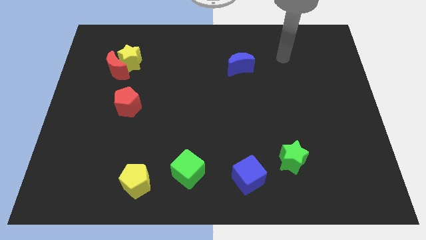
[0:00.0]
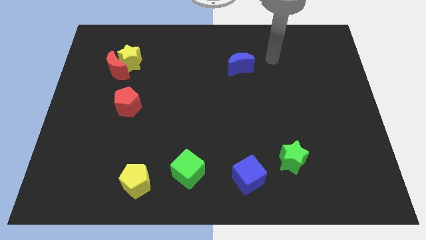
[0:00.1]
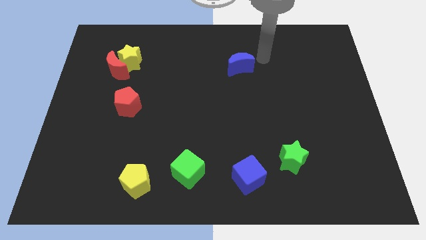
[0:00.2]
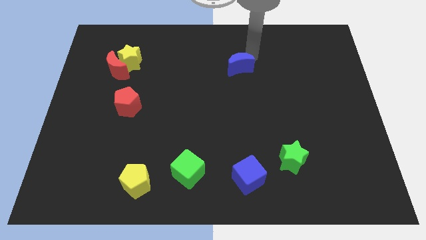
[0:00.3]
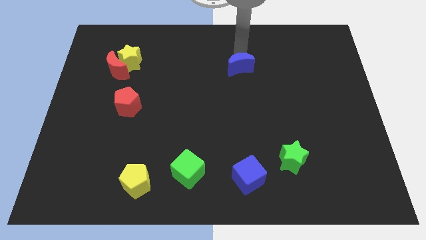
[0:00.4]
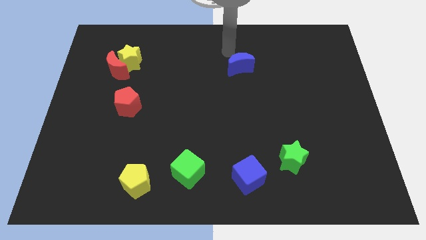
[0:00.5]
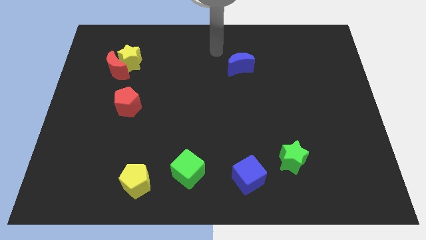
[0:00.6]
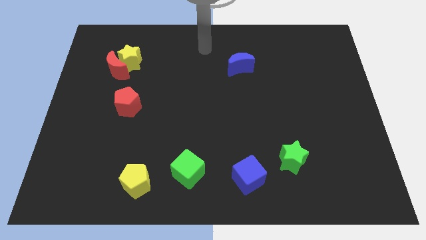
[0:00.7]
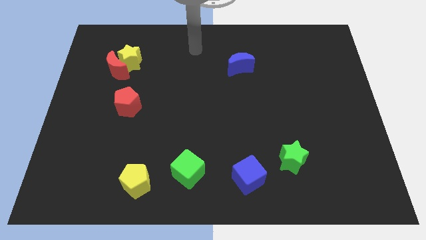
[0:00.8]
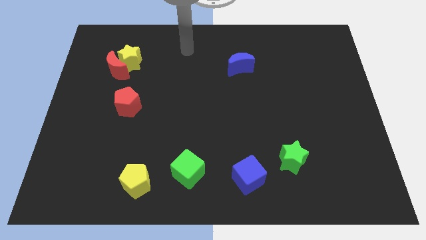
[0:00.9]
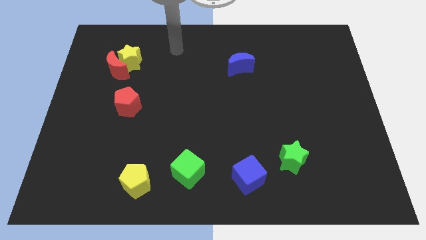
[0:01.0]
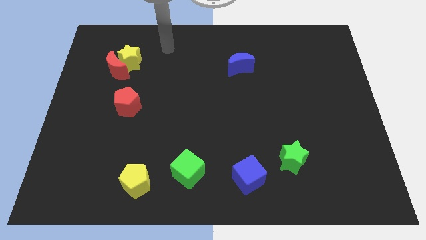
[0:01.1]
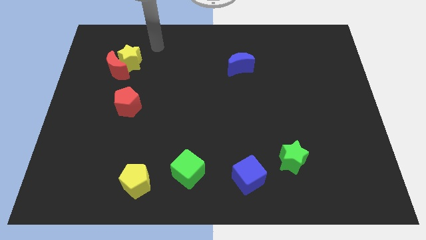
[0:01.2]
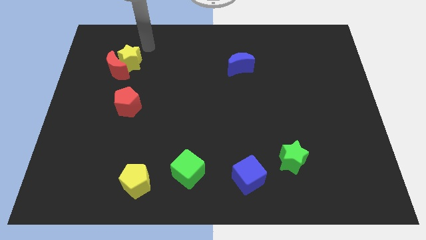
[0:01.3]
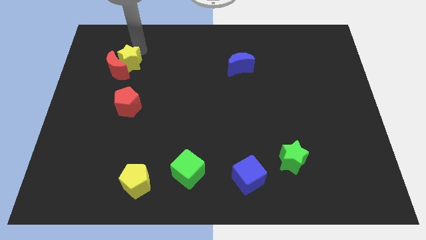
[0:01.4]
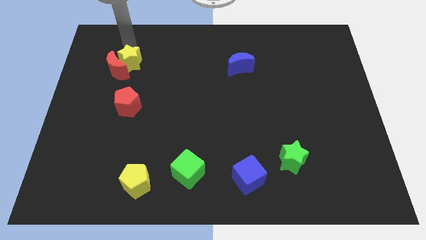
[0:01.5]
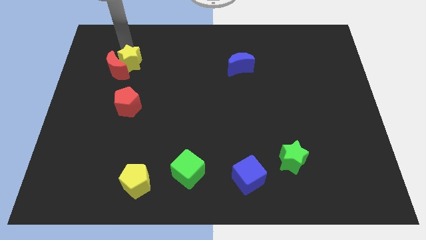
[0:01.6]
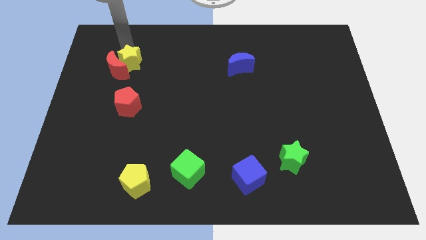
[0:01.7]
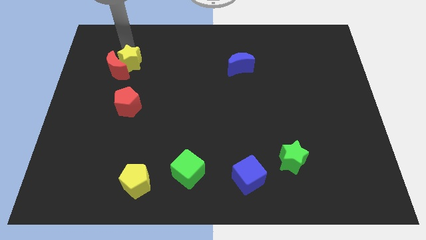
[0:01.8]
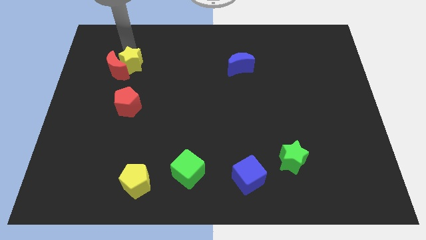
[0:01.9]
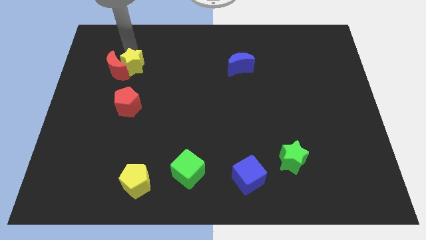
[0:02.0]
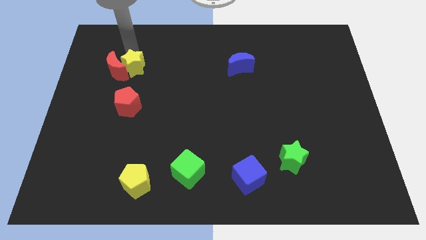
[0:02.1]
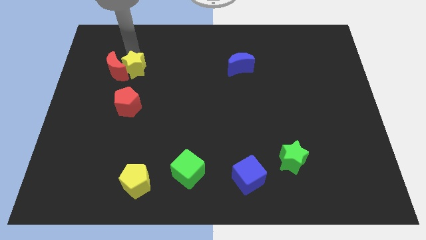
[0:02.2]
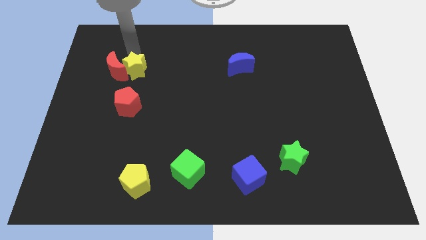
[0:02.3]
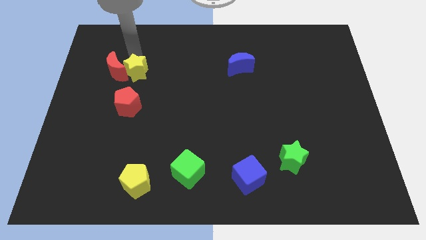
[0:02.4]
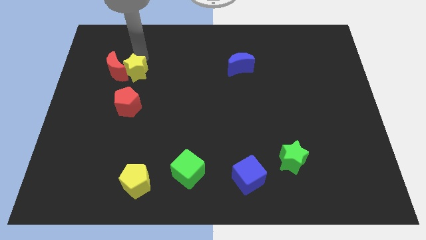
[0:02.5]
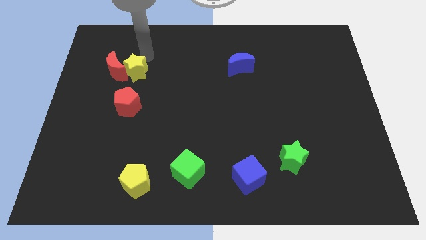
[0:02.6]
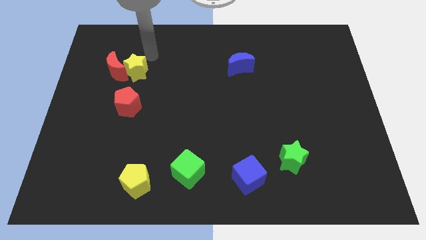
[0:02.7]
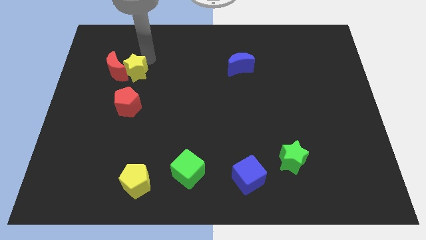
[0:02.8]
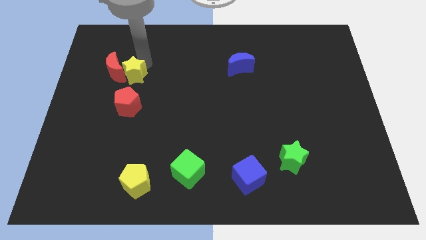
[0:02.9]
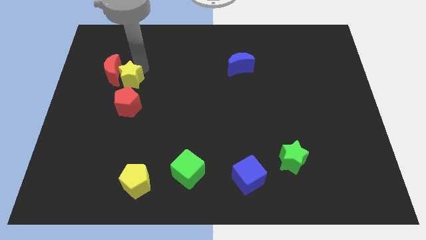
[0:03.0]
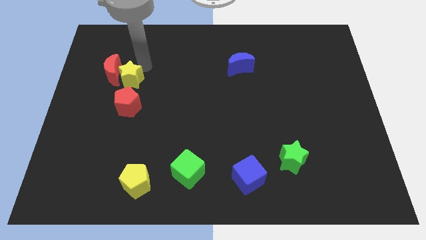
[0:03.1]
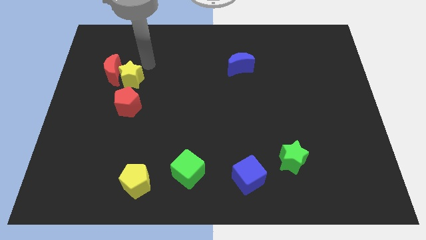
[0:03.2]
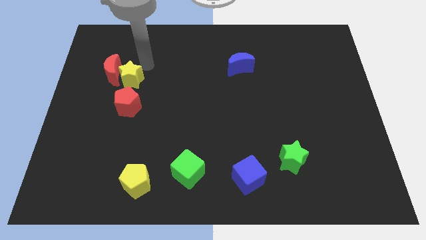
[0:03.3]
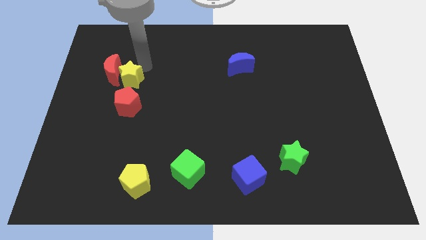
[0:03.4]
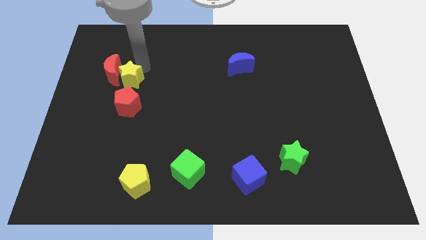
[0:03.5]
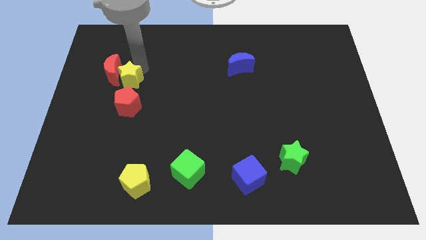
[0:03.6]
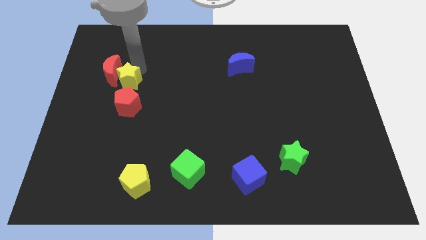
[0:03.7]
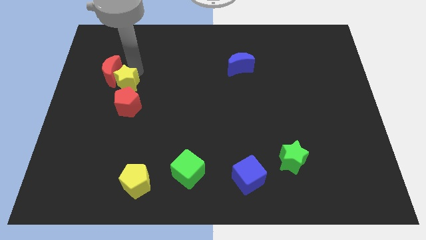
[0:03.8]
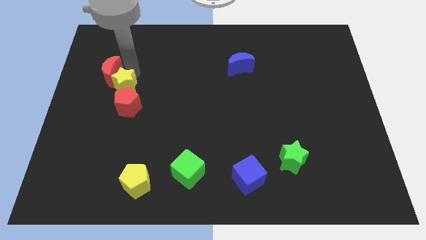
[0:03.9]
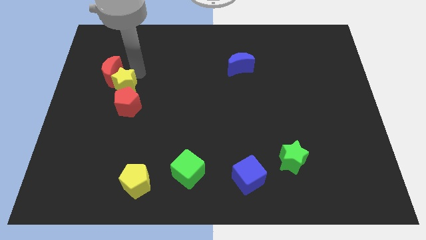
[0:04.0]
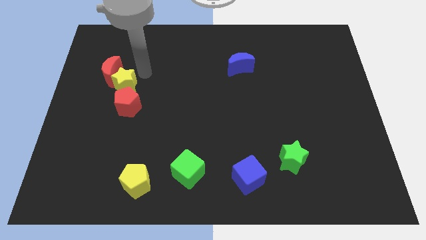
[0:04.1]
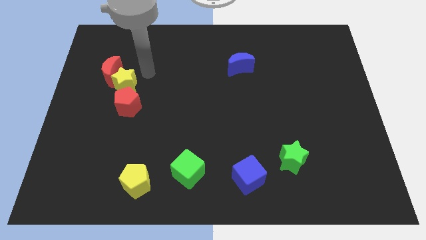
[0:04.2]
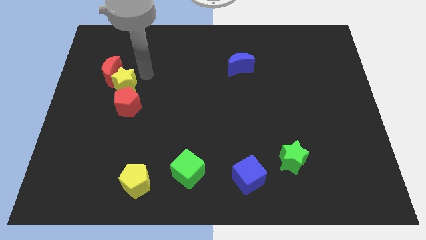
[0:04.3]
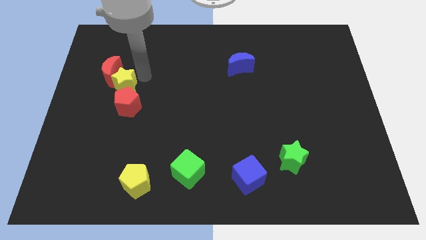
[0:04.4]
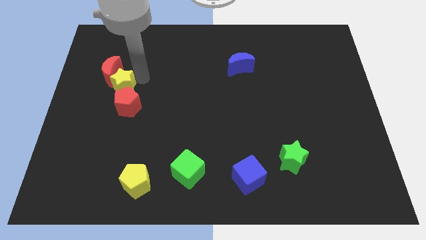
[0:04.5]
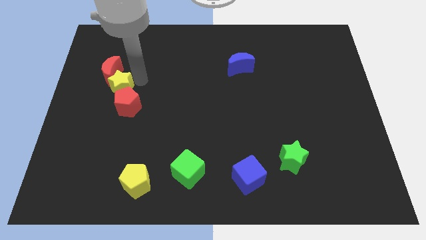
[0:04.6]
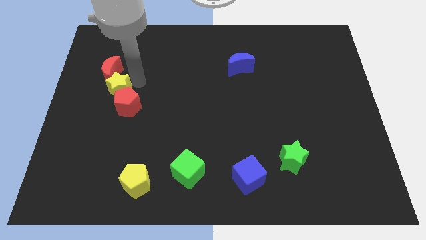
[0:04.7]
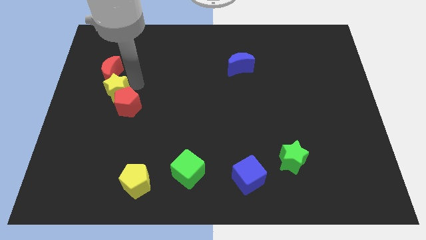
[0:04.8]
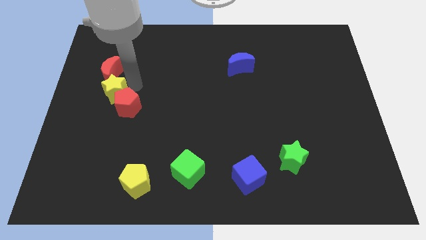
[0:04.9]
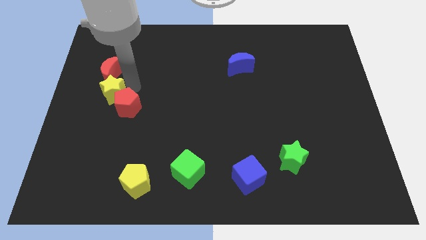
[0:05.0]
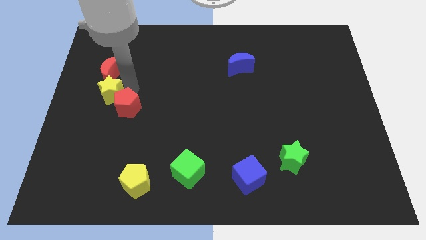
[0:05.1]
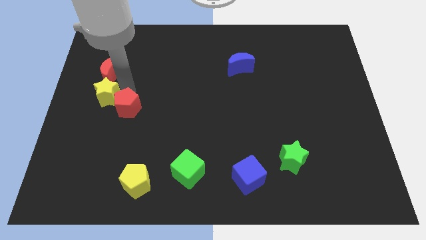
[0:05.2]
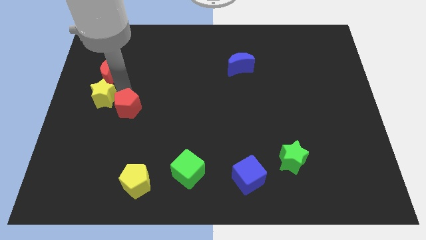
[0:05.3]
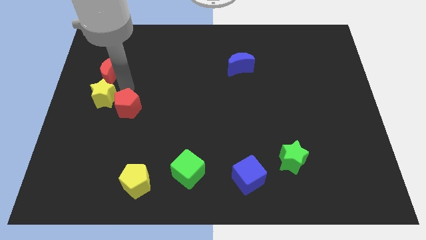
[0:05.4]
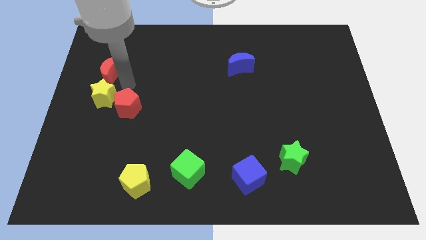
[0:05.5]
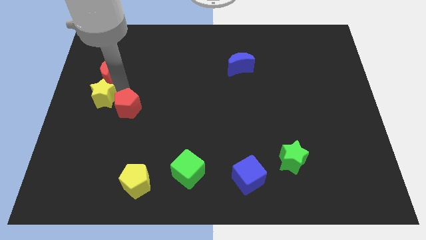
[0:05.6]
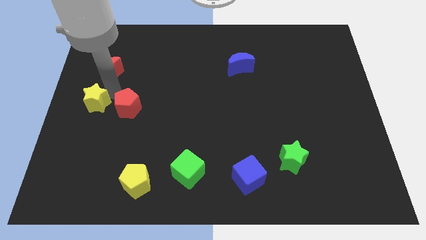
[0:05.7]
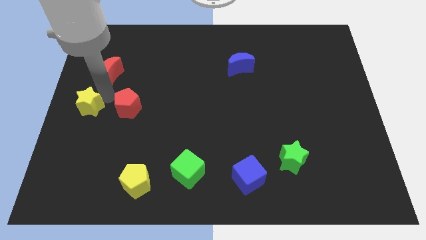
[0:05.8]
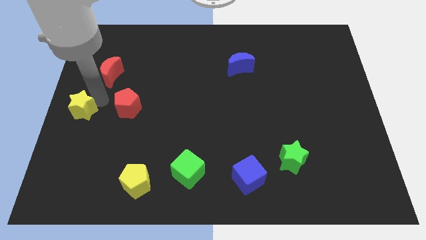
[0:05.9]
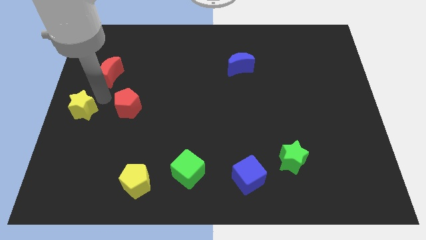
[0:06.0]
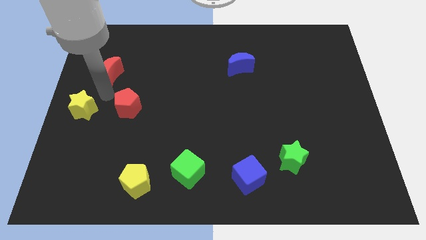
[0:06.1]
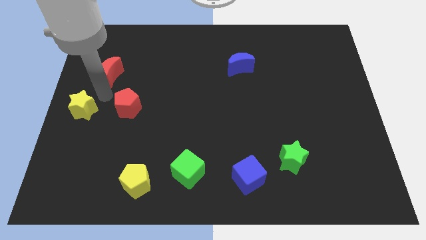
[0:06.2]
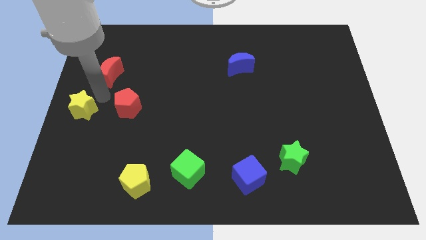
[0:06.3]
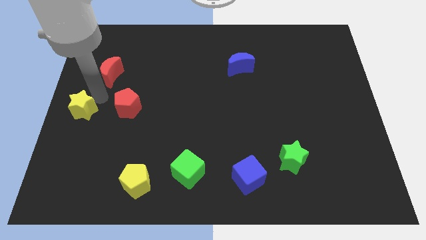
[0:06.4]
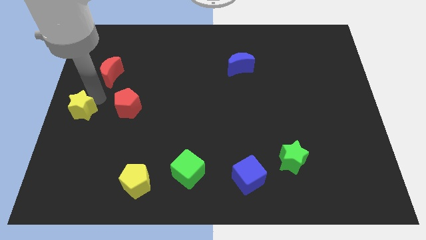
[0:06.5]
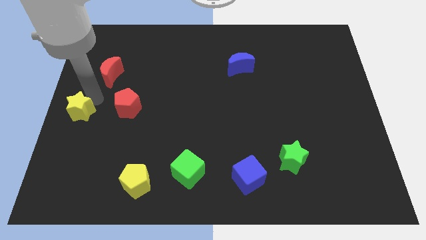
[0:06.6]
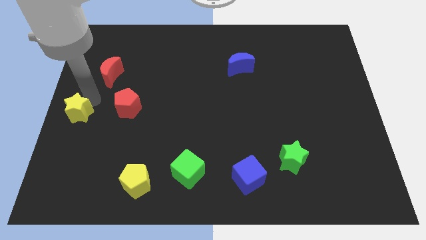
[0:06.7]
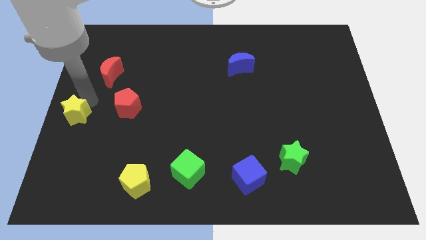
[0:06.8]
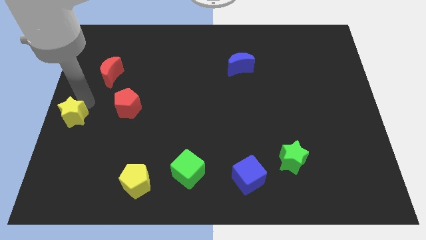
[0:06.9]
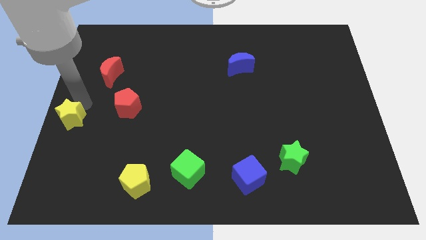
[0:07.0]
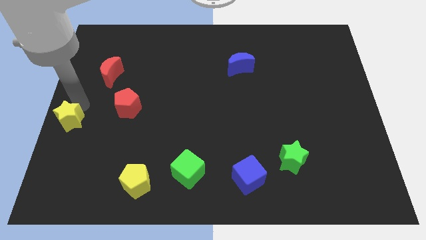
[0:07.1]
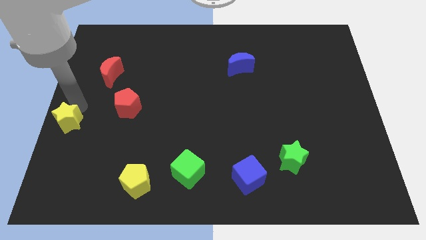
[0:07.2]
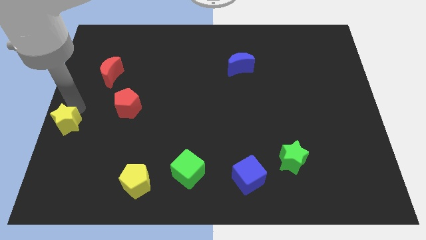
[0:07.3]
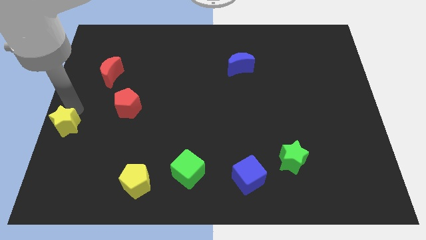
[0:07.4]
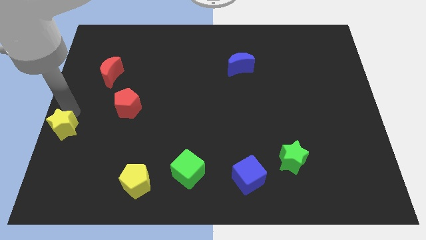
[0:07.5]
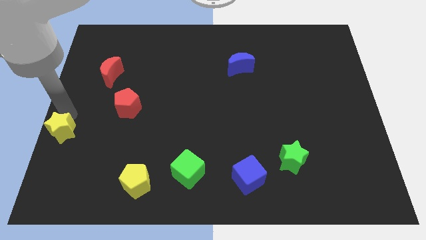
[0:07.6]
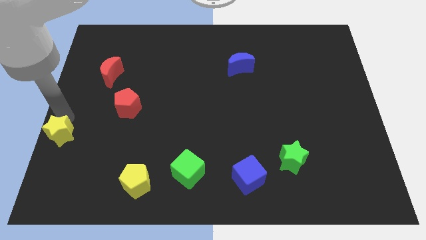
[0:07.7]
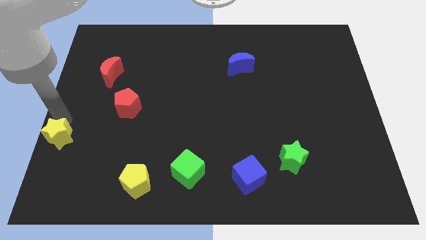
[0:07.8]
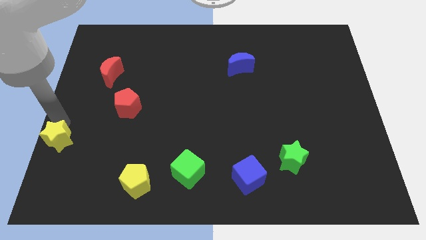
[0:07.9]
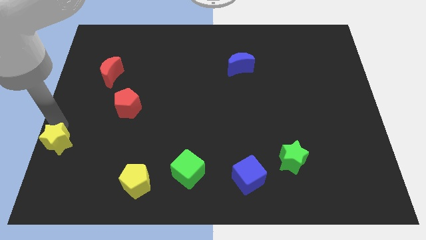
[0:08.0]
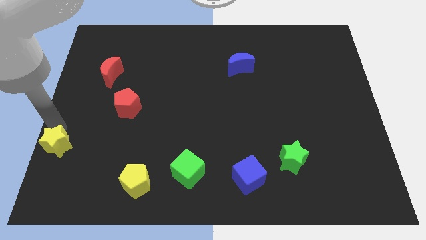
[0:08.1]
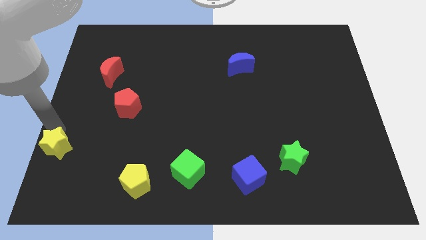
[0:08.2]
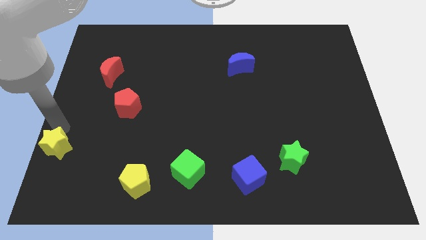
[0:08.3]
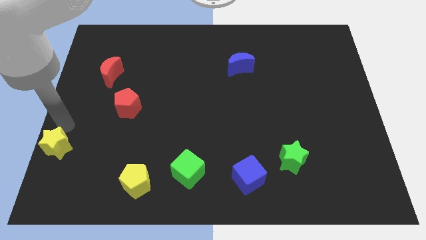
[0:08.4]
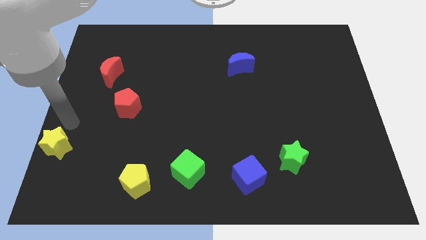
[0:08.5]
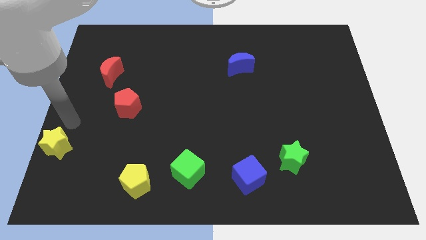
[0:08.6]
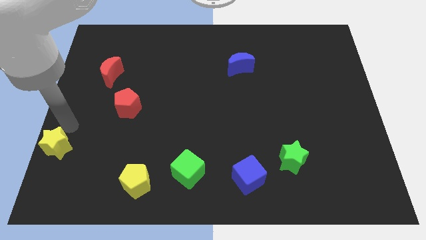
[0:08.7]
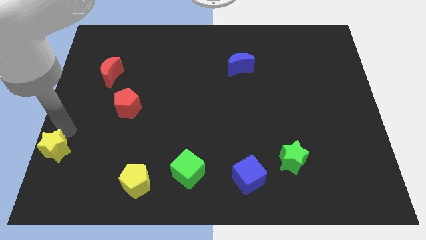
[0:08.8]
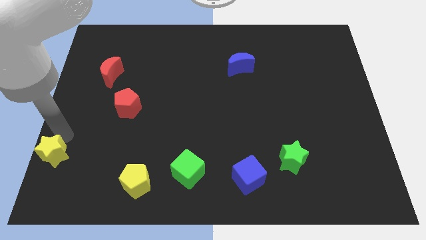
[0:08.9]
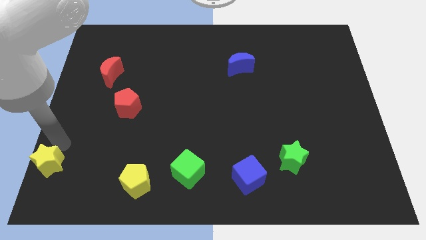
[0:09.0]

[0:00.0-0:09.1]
slide the yellow star to the lower left corner
